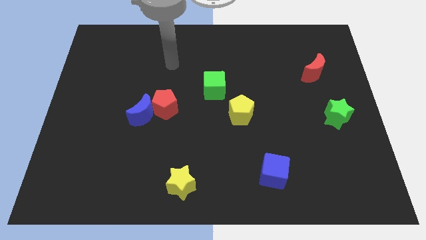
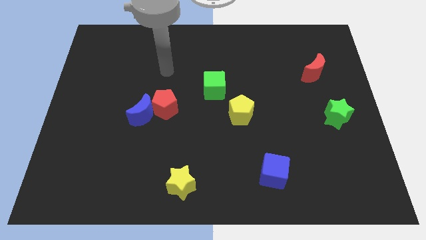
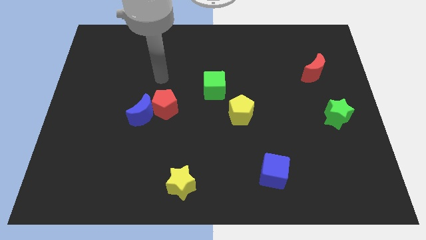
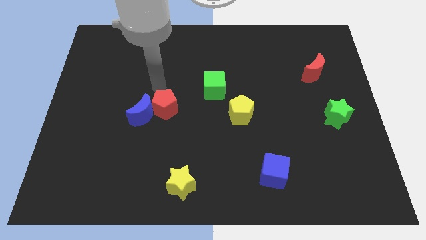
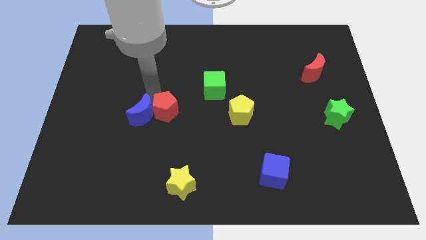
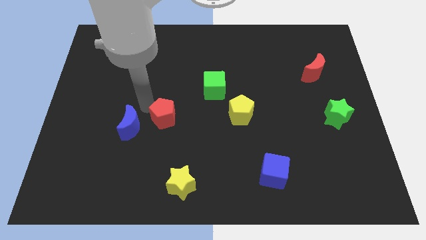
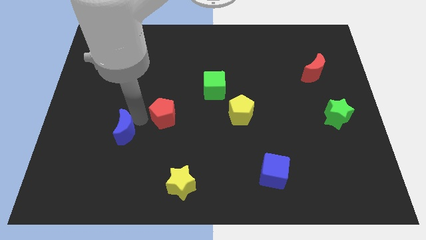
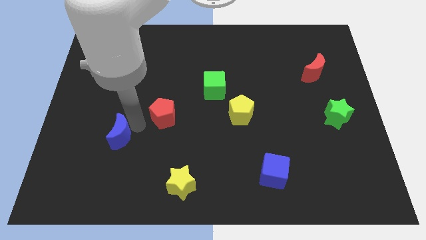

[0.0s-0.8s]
separate the red pentagon from the blue moon

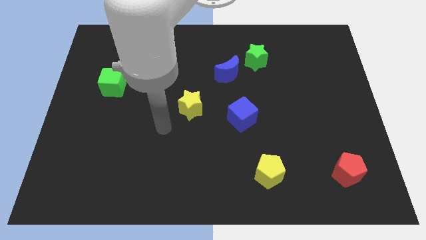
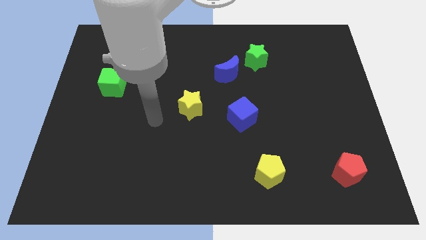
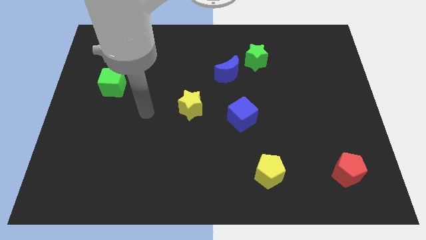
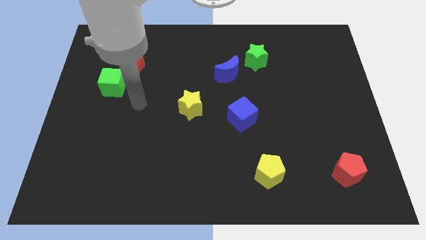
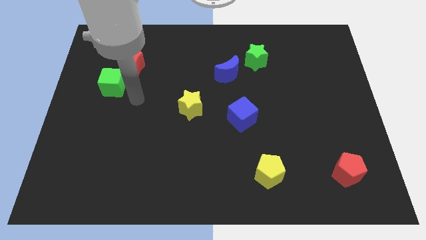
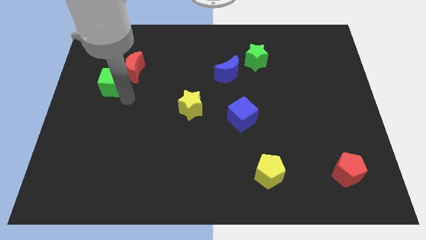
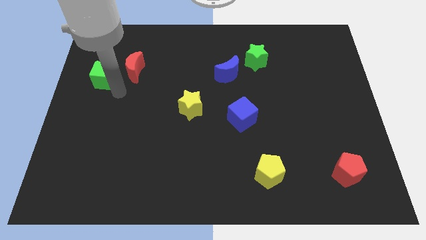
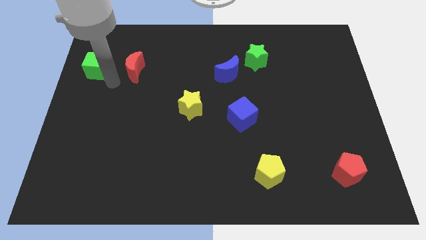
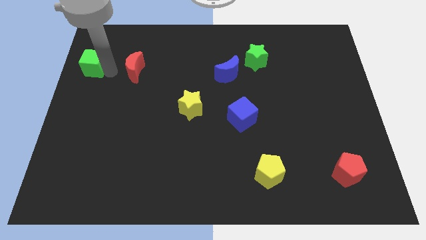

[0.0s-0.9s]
move the red moon away from the green cube

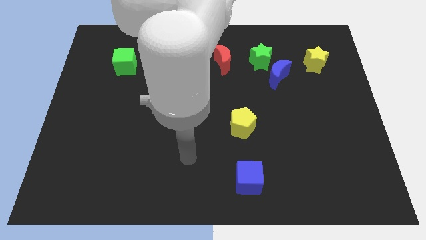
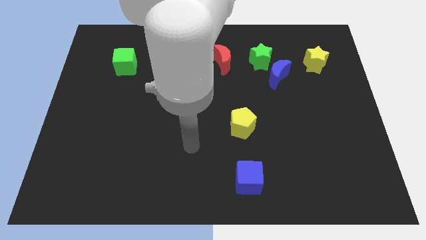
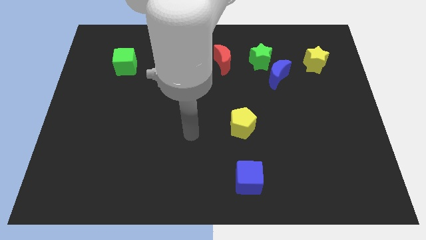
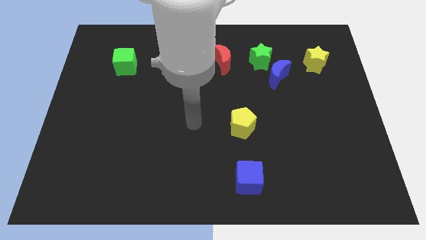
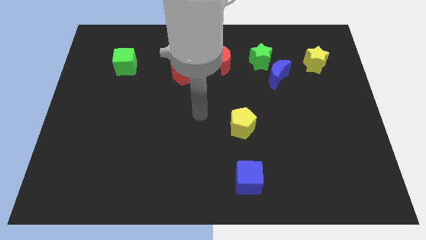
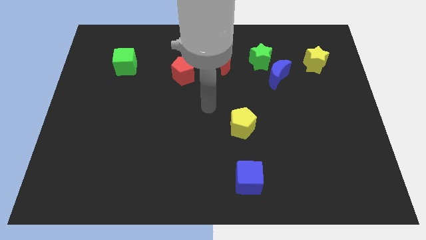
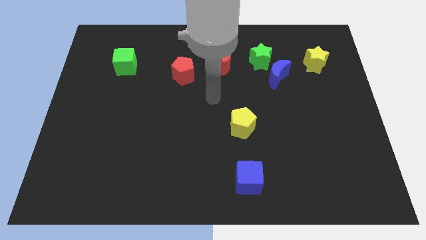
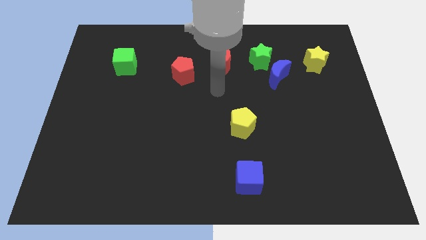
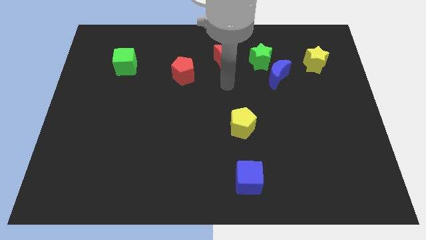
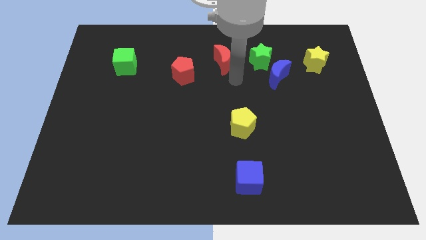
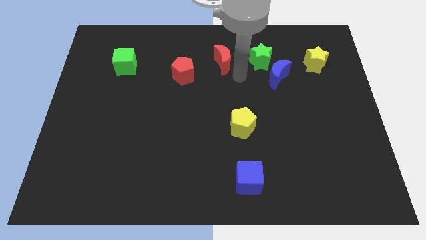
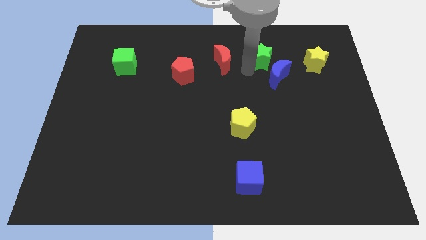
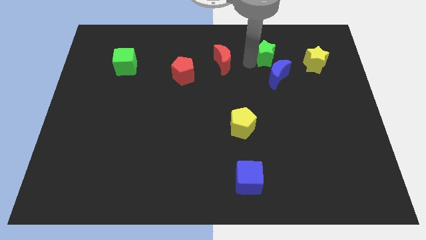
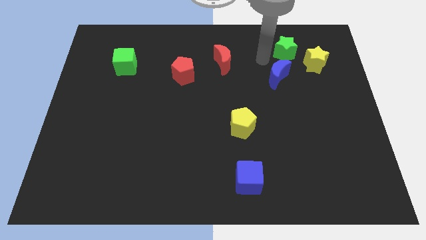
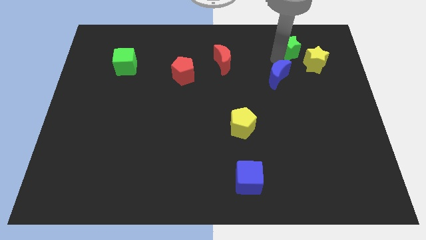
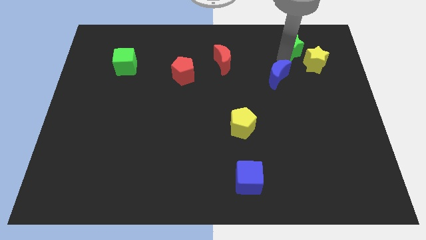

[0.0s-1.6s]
move the blue moon away from the green star

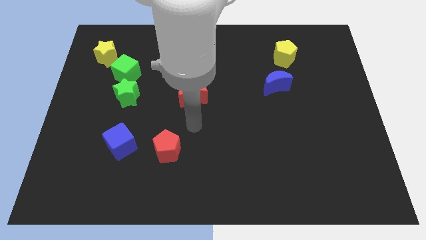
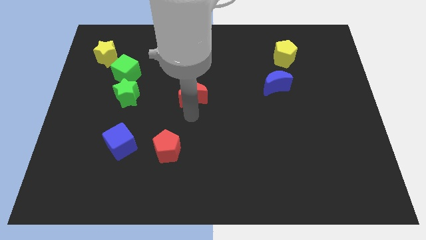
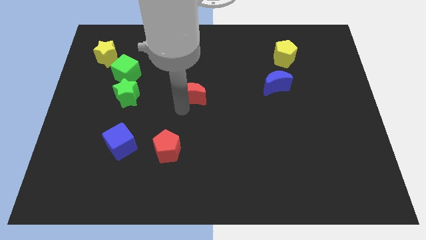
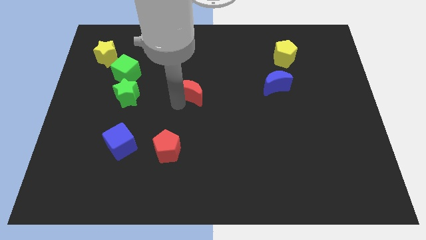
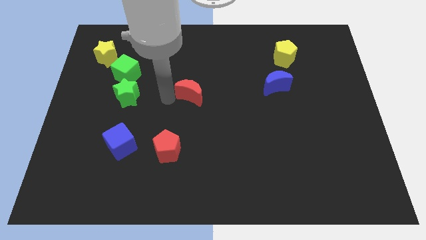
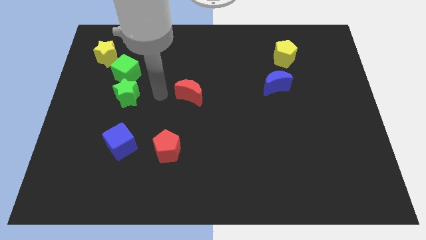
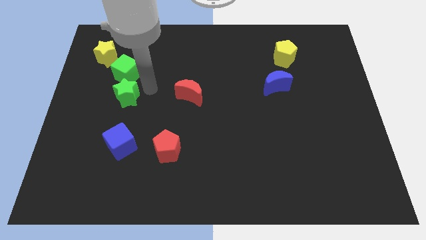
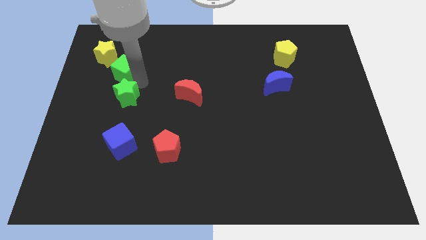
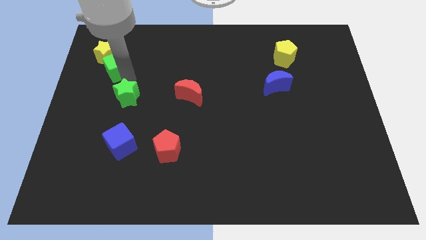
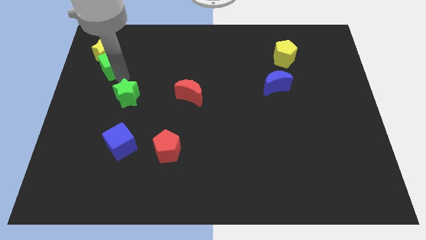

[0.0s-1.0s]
separate the green star from the green cube

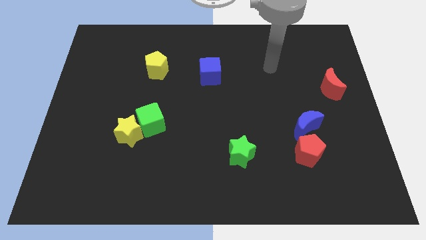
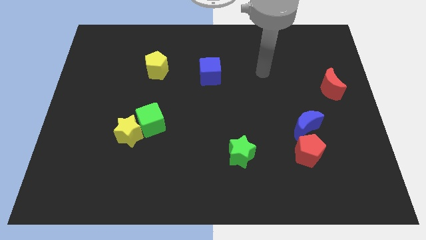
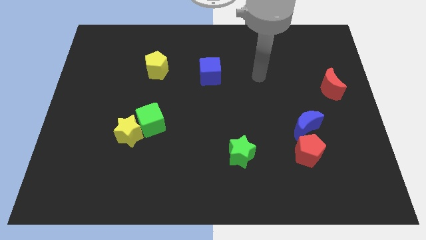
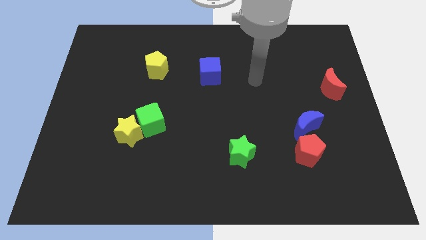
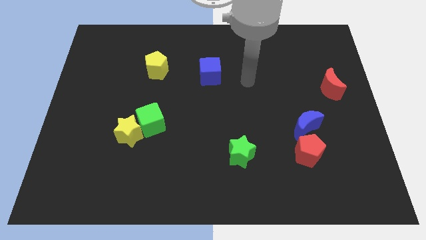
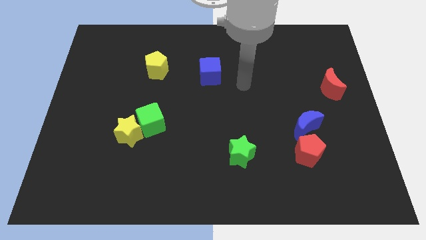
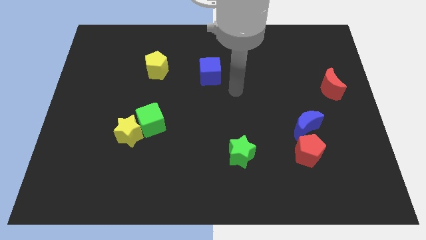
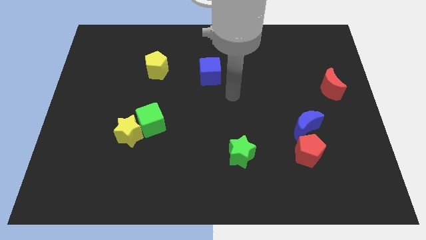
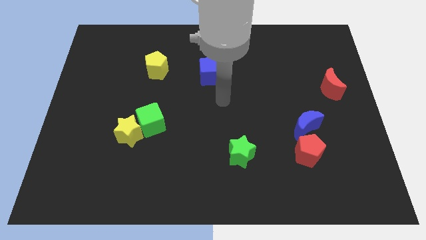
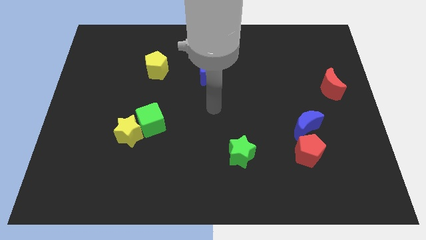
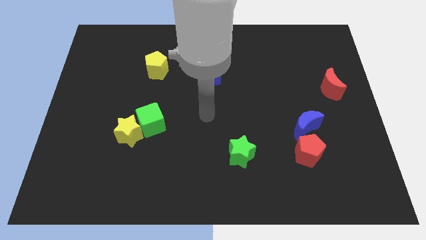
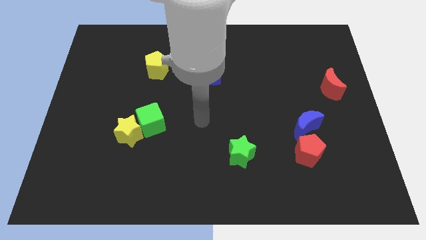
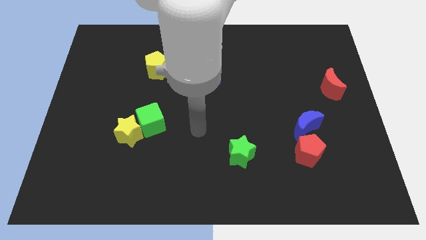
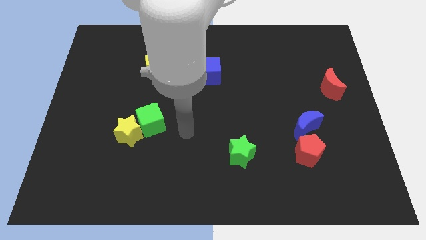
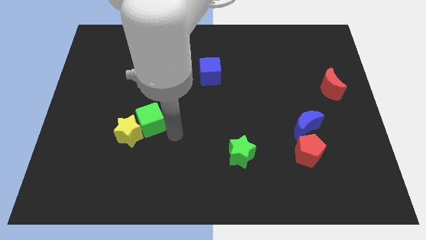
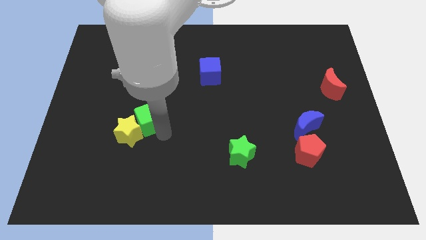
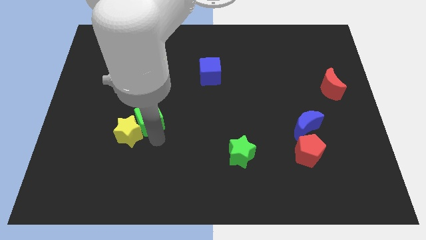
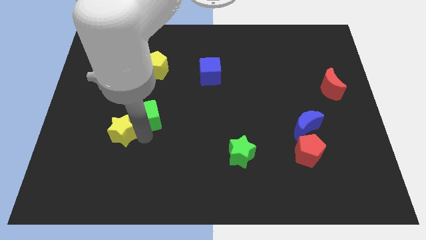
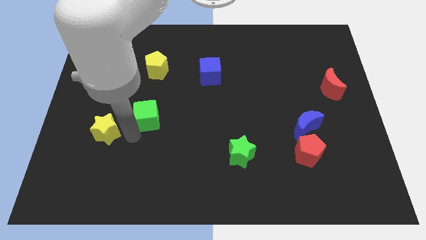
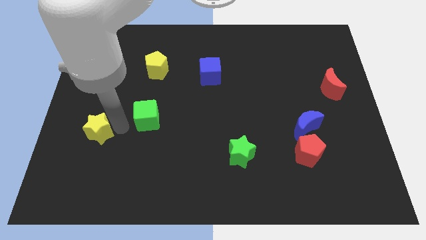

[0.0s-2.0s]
separate the green cube from the yellow star

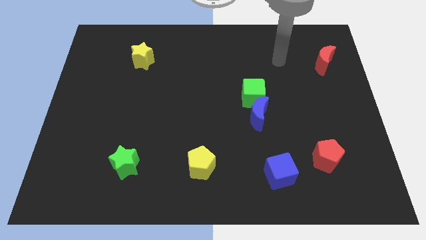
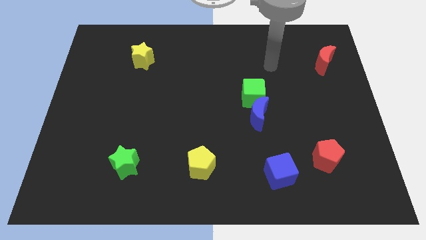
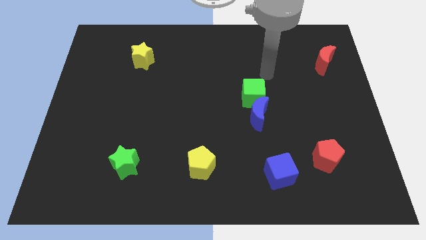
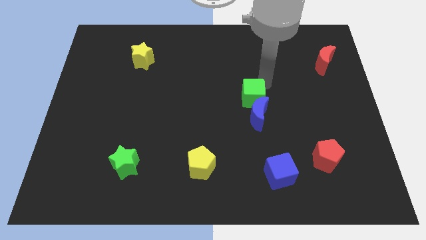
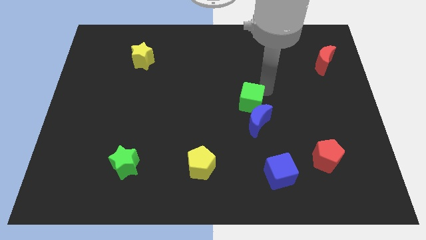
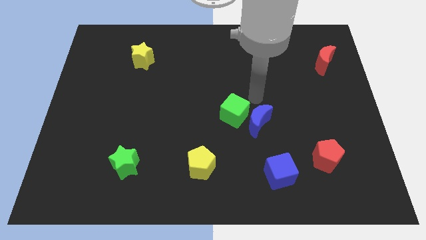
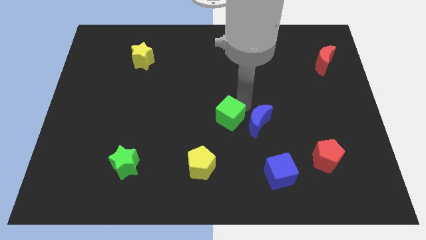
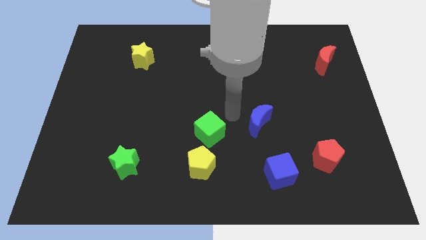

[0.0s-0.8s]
separate the blue moon from the green cube

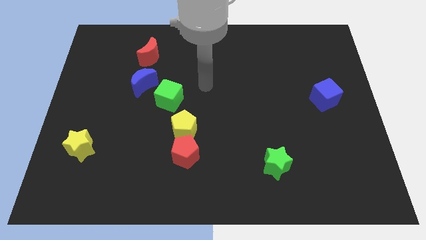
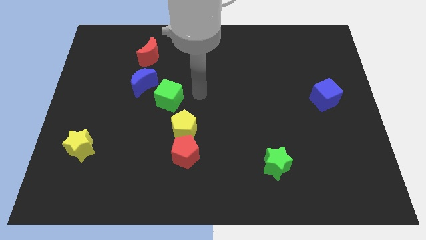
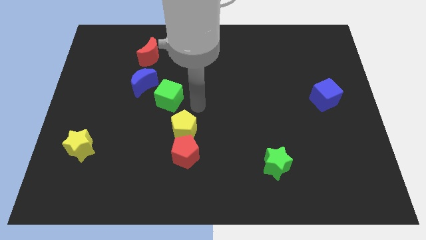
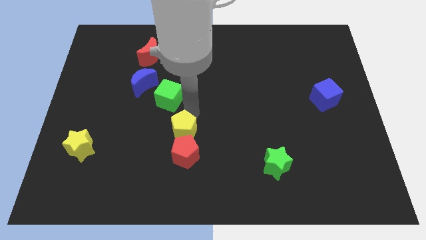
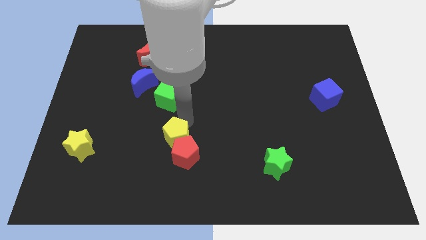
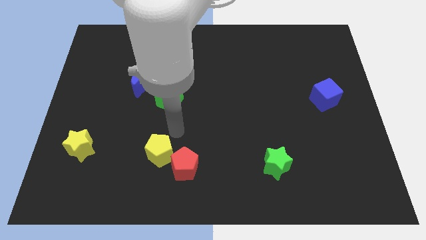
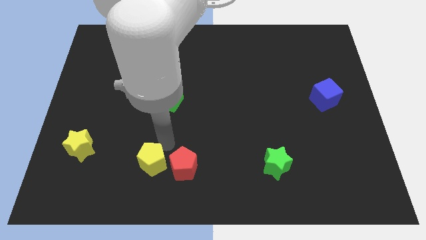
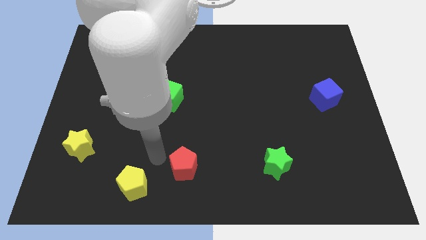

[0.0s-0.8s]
pull the red pentagon apart from the yellow pentagon

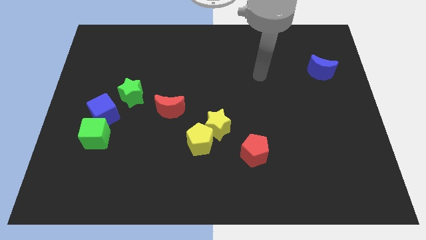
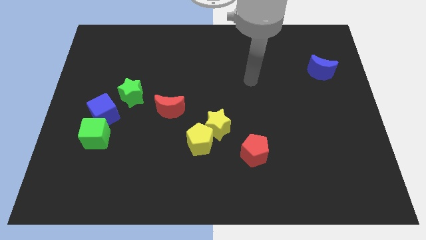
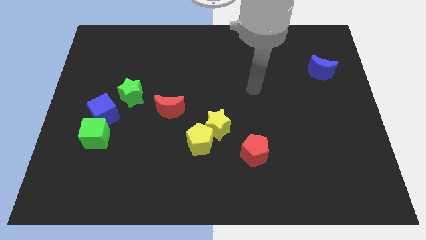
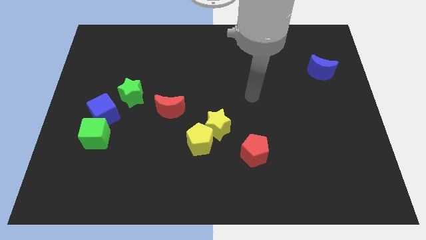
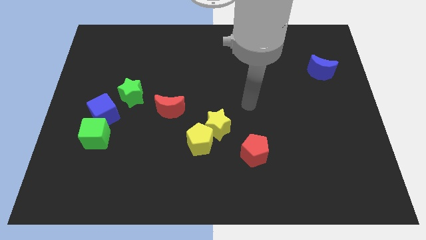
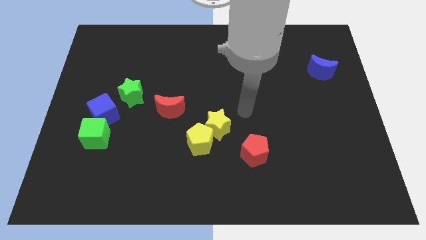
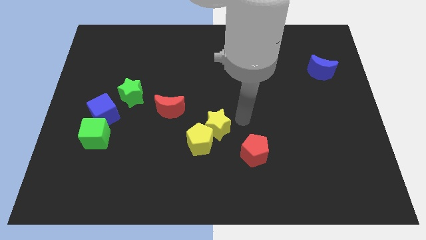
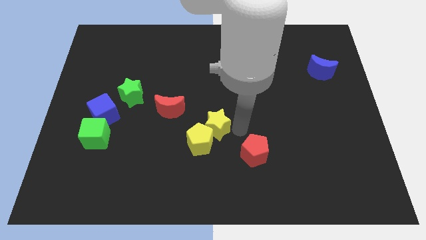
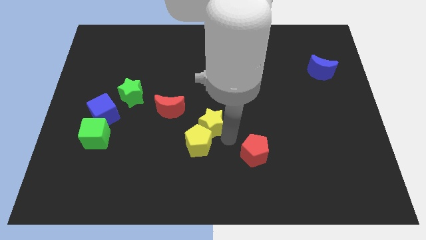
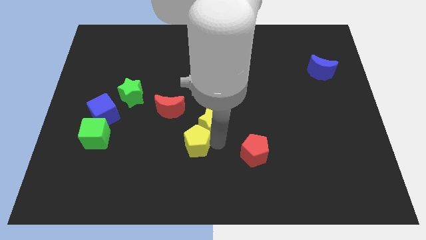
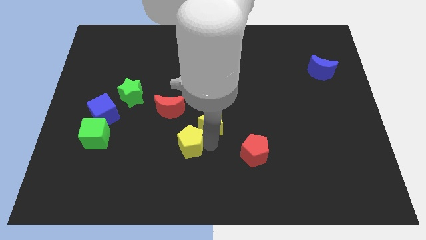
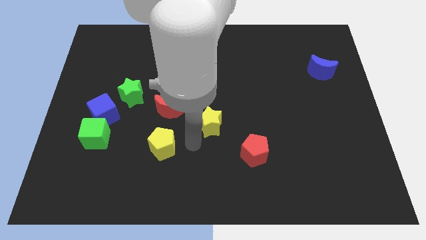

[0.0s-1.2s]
pull the yellow star apart from the yellow pentagon

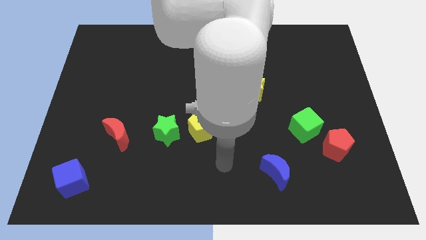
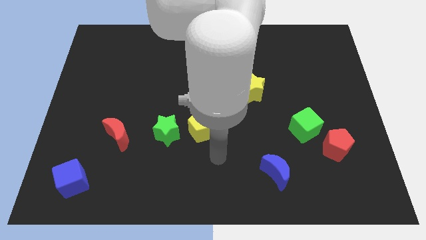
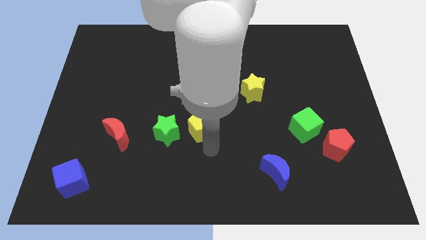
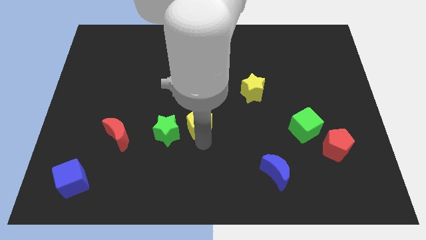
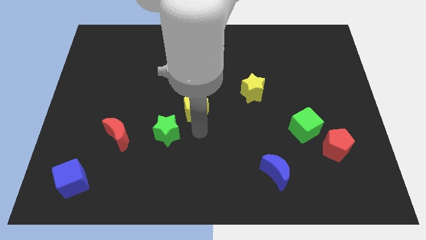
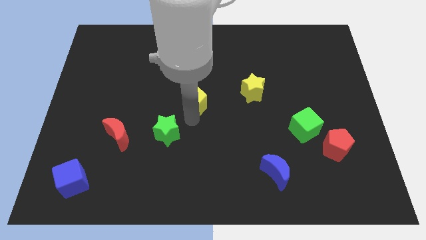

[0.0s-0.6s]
separate the green star from the yellow pentagon
